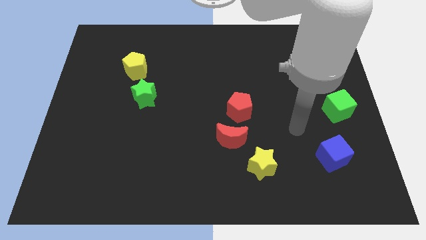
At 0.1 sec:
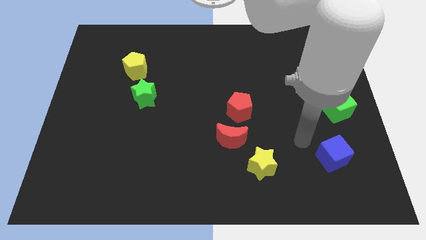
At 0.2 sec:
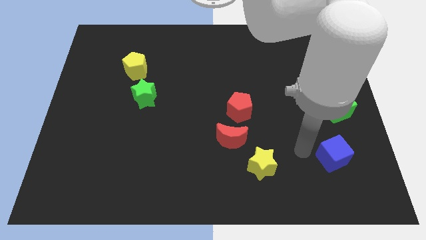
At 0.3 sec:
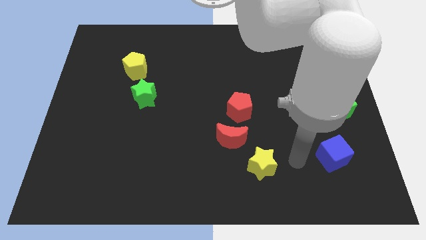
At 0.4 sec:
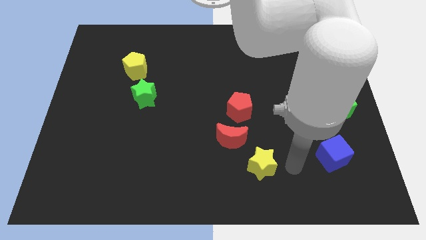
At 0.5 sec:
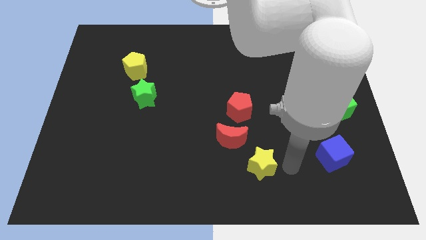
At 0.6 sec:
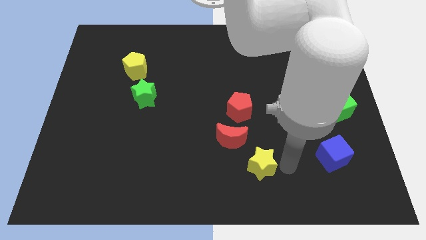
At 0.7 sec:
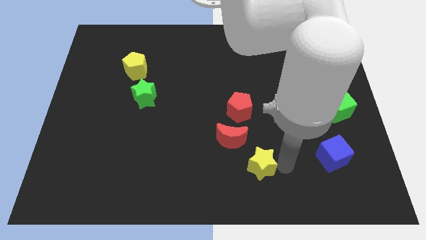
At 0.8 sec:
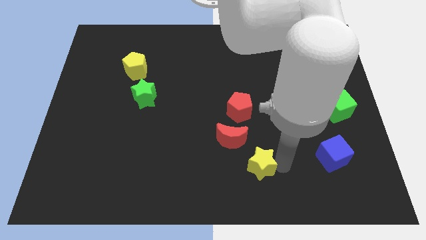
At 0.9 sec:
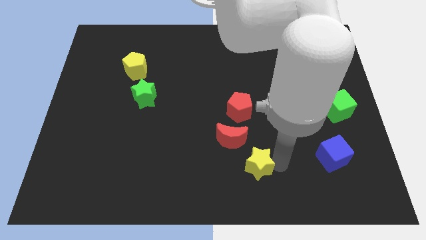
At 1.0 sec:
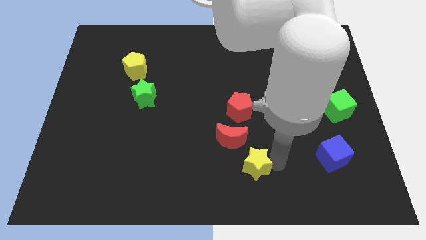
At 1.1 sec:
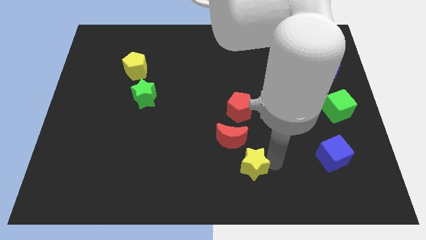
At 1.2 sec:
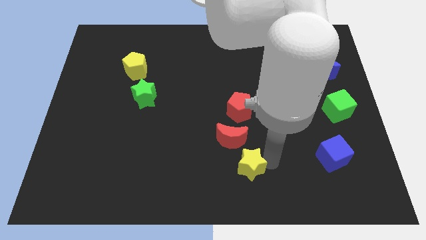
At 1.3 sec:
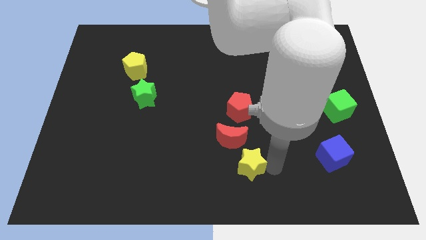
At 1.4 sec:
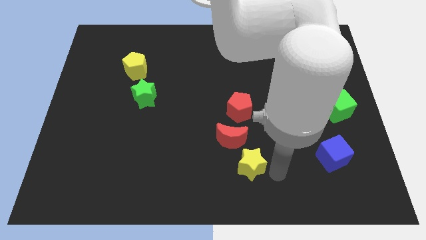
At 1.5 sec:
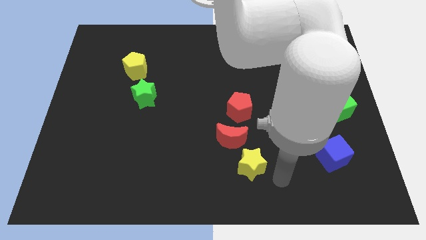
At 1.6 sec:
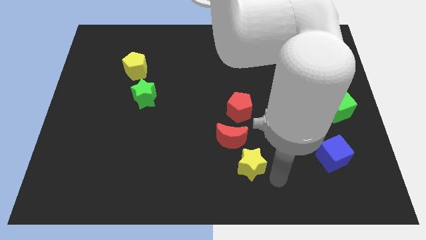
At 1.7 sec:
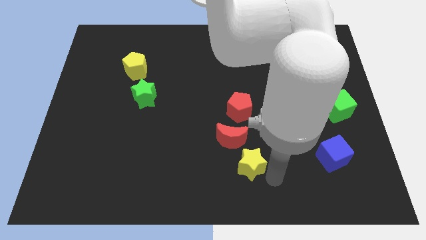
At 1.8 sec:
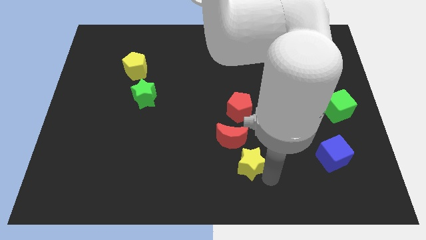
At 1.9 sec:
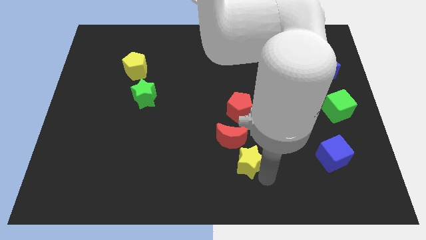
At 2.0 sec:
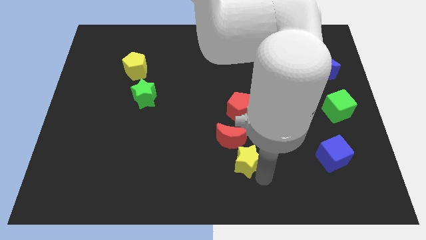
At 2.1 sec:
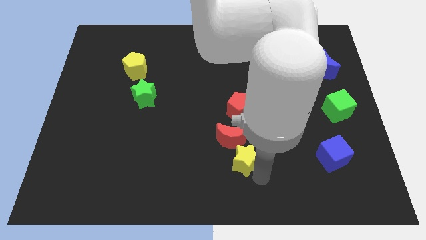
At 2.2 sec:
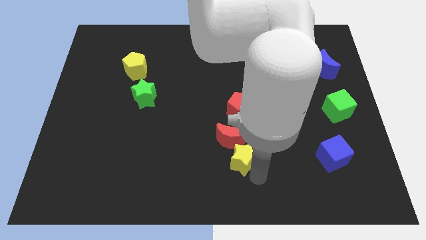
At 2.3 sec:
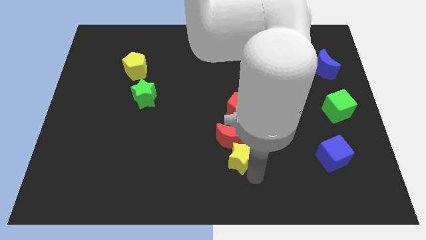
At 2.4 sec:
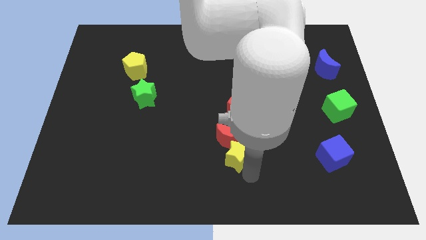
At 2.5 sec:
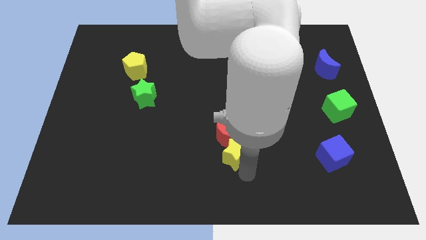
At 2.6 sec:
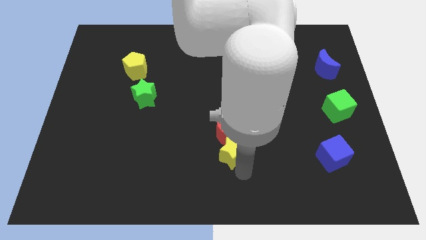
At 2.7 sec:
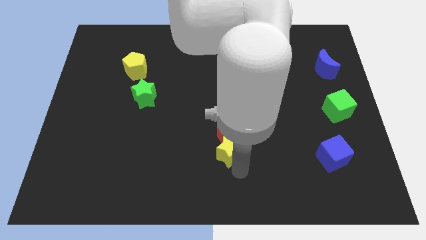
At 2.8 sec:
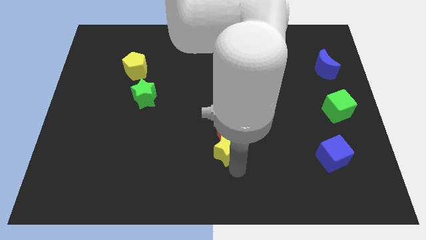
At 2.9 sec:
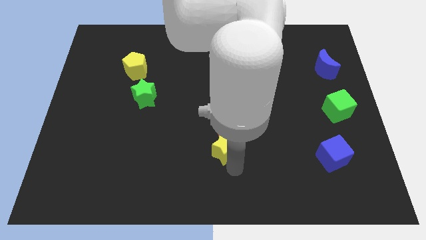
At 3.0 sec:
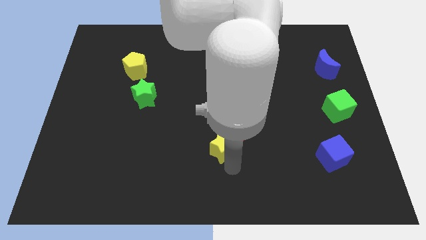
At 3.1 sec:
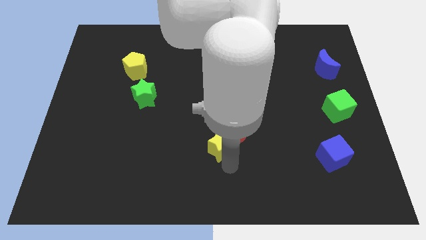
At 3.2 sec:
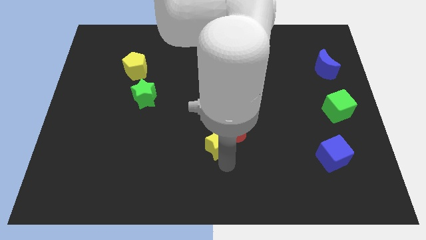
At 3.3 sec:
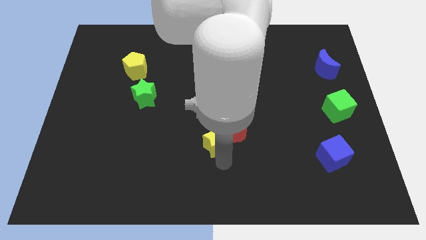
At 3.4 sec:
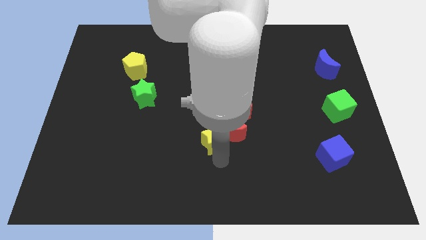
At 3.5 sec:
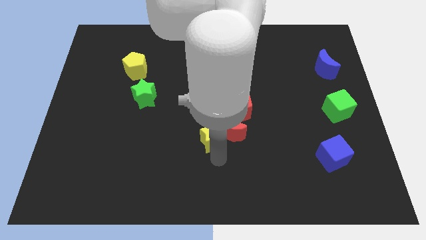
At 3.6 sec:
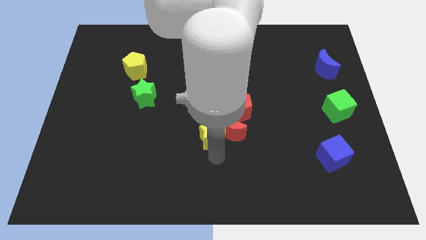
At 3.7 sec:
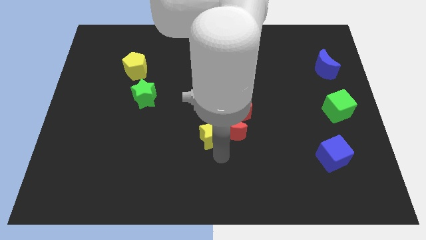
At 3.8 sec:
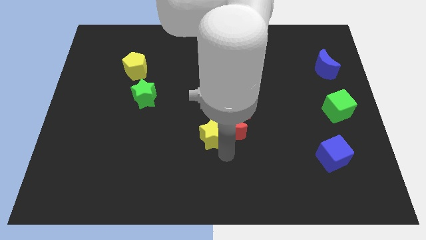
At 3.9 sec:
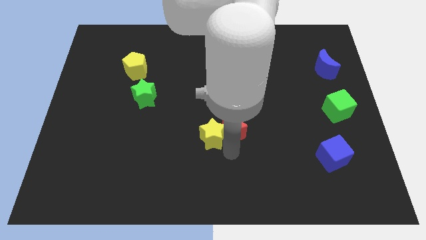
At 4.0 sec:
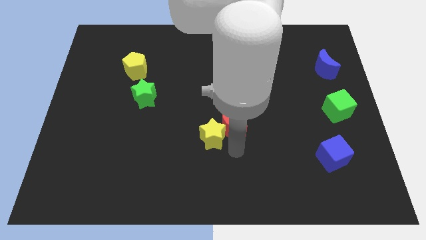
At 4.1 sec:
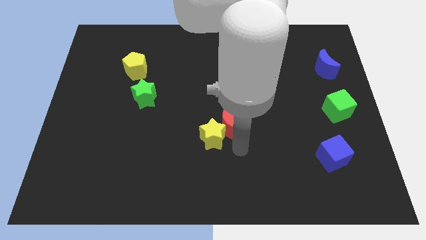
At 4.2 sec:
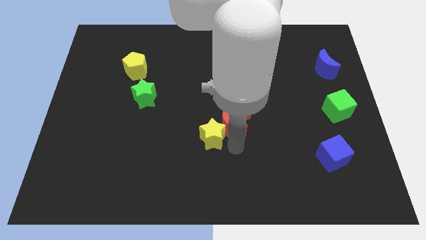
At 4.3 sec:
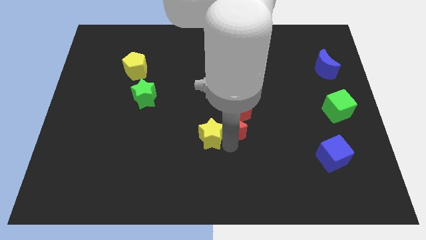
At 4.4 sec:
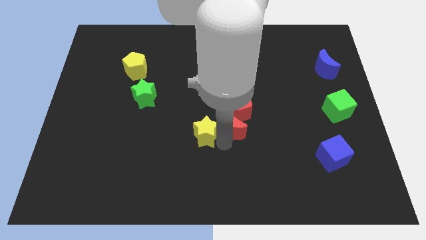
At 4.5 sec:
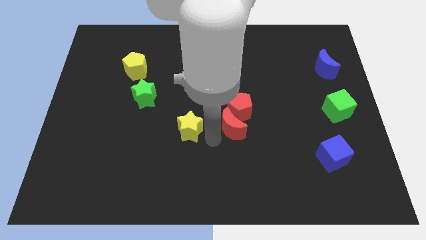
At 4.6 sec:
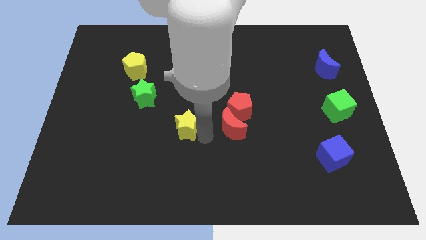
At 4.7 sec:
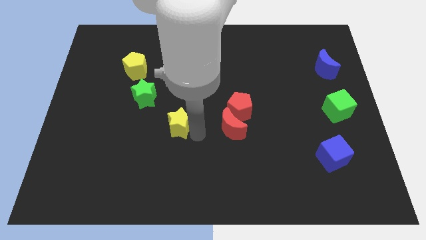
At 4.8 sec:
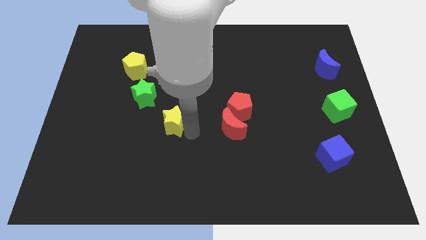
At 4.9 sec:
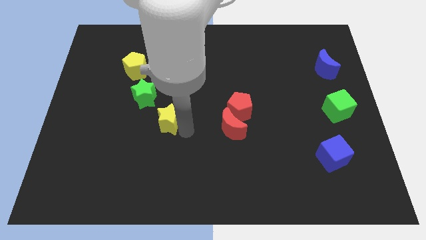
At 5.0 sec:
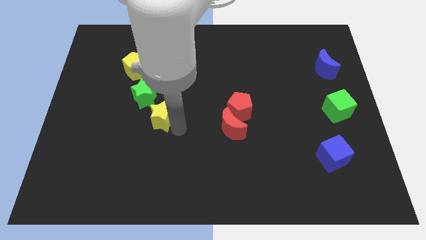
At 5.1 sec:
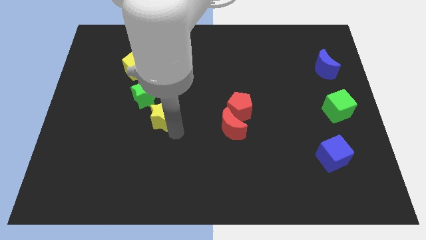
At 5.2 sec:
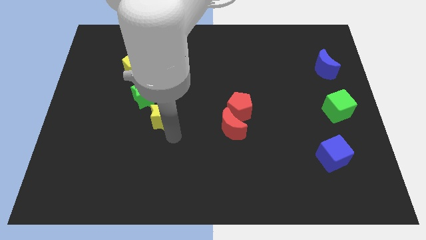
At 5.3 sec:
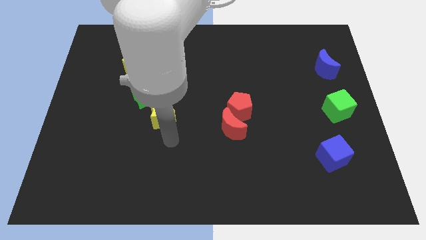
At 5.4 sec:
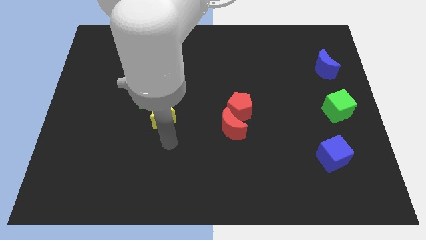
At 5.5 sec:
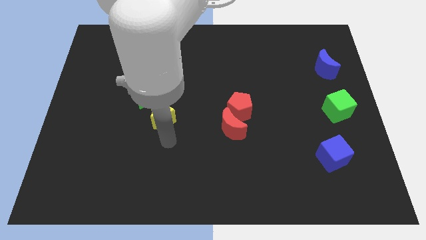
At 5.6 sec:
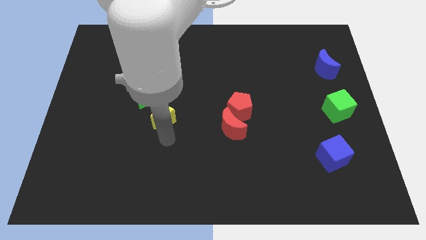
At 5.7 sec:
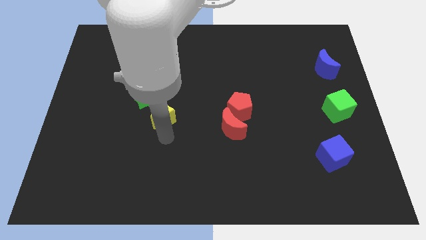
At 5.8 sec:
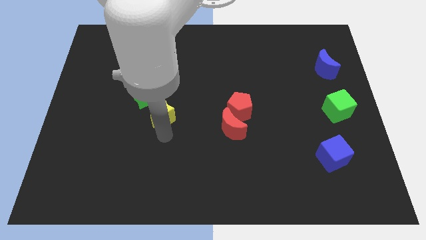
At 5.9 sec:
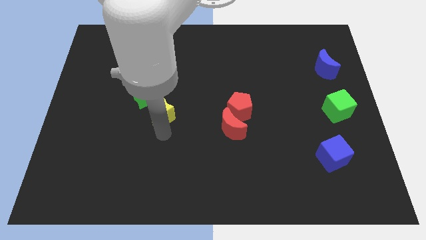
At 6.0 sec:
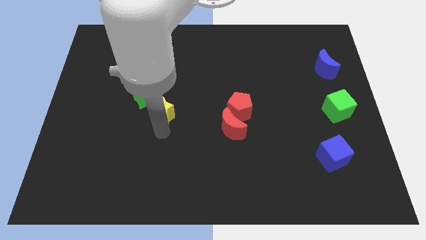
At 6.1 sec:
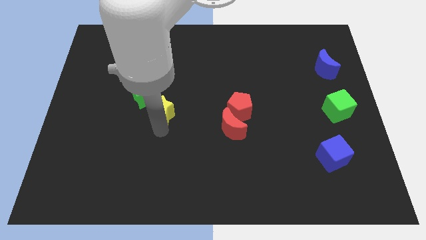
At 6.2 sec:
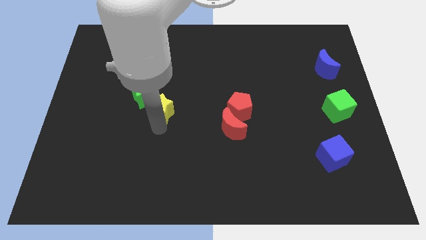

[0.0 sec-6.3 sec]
push the yellow star next to the green star
